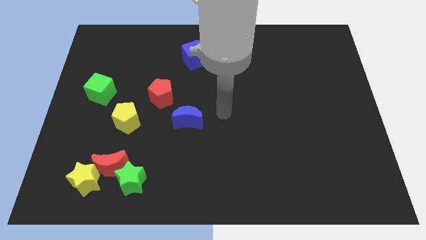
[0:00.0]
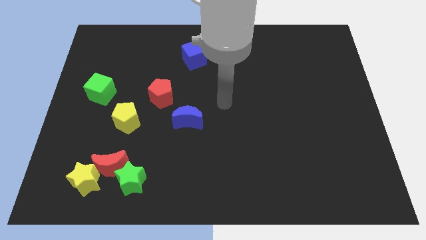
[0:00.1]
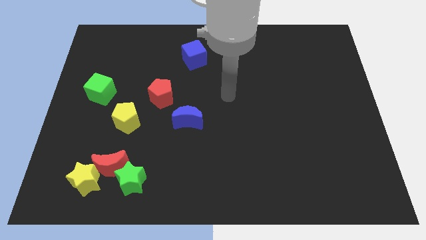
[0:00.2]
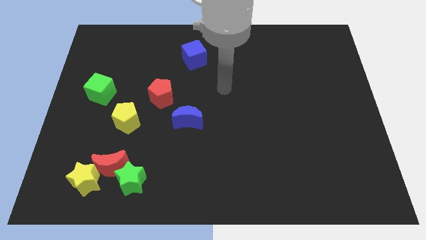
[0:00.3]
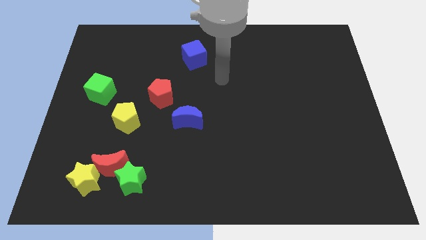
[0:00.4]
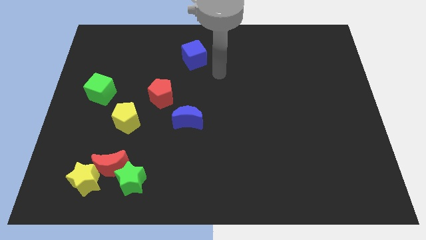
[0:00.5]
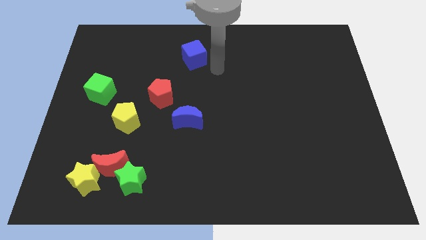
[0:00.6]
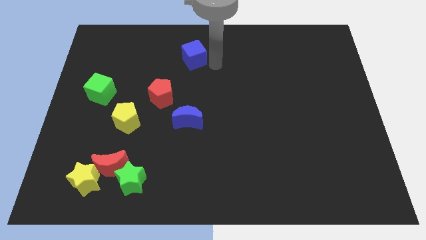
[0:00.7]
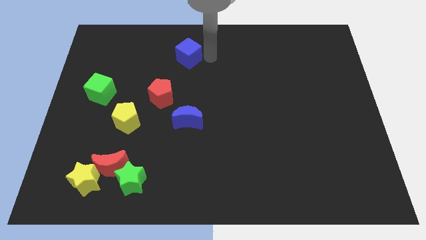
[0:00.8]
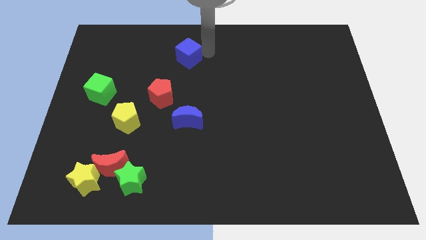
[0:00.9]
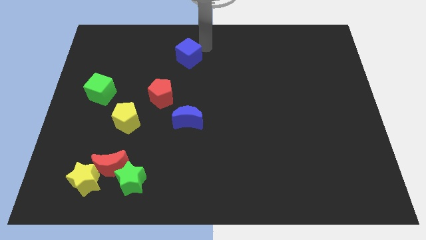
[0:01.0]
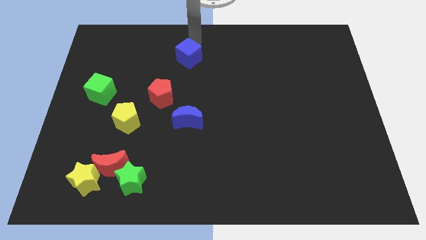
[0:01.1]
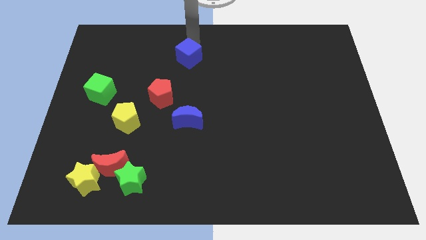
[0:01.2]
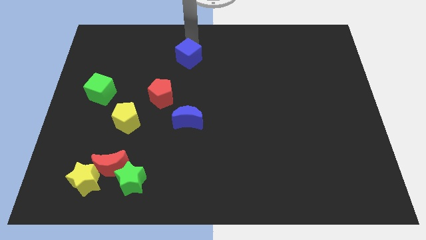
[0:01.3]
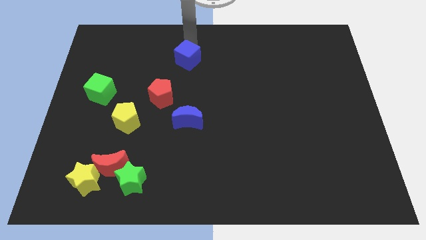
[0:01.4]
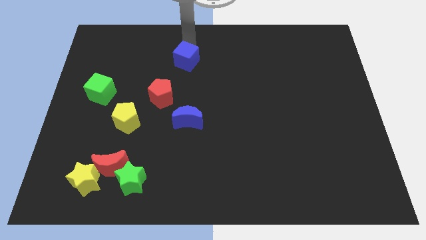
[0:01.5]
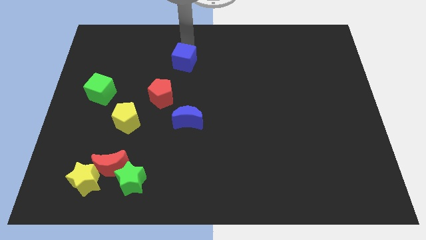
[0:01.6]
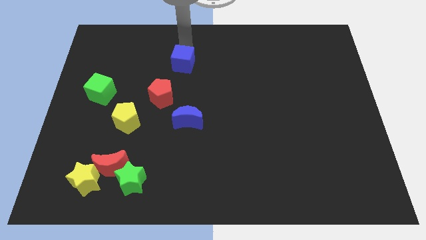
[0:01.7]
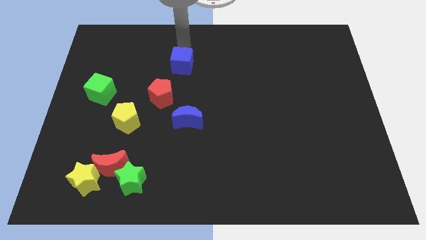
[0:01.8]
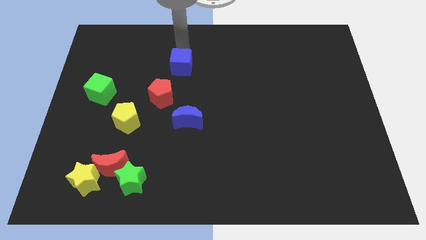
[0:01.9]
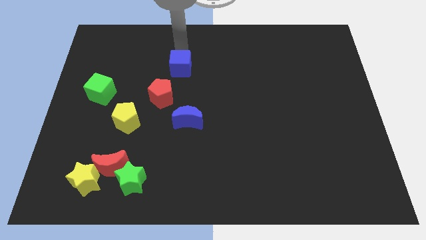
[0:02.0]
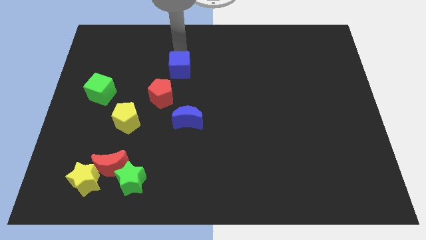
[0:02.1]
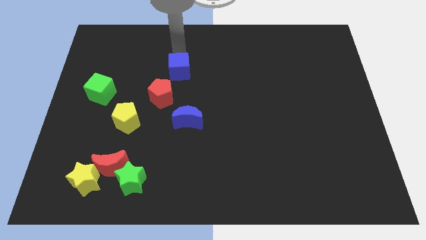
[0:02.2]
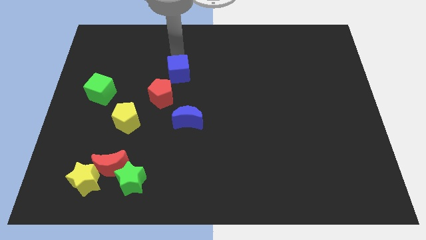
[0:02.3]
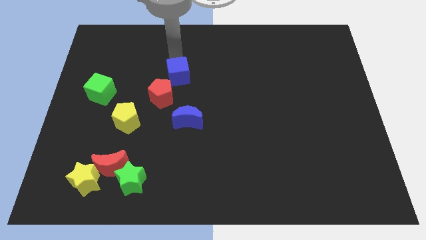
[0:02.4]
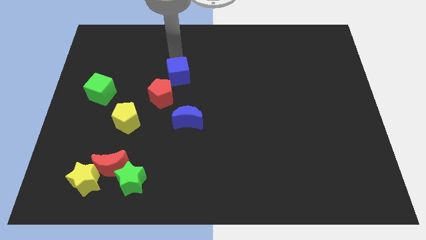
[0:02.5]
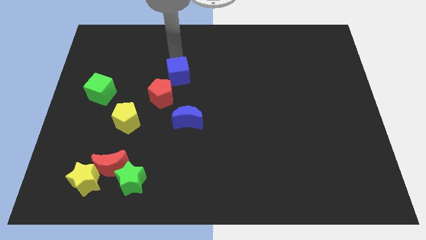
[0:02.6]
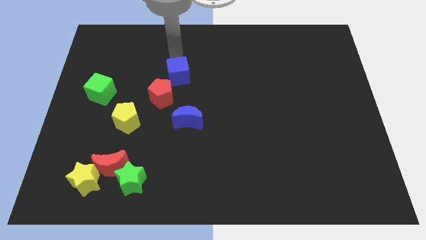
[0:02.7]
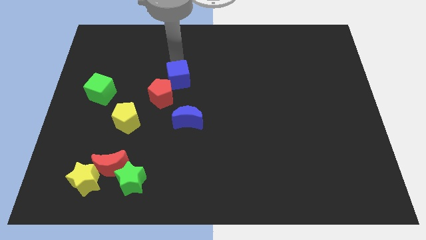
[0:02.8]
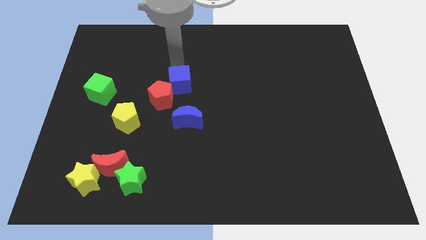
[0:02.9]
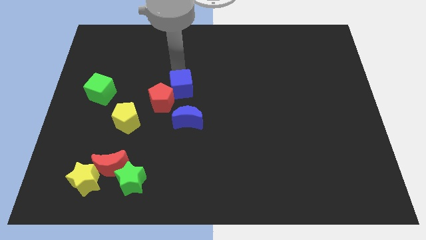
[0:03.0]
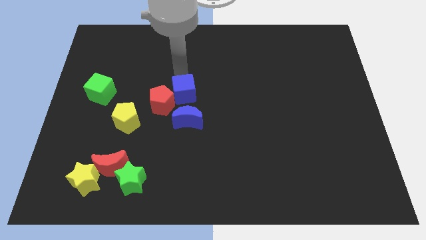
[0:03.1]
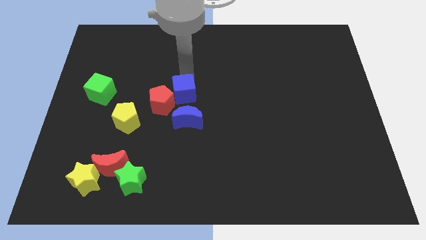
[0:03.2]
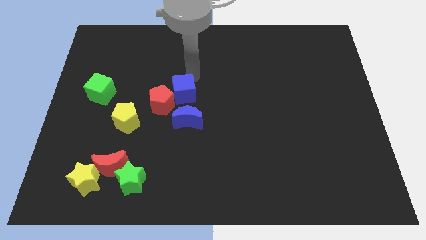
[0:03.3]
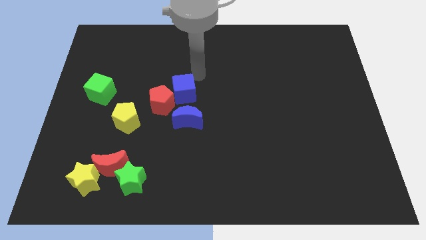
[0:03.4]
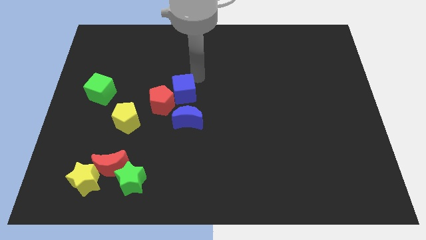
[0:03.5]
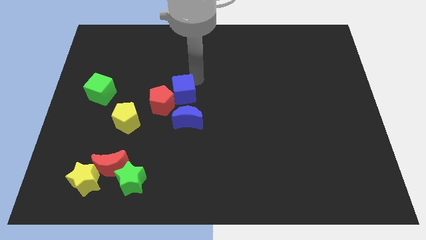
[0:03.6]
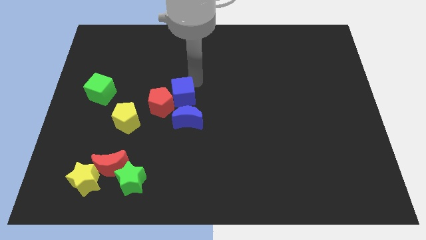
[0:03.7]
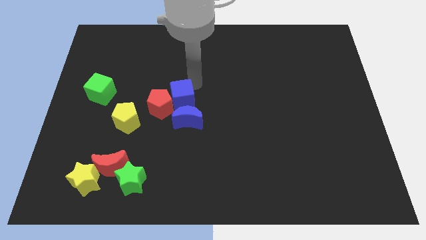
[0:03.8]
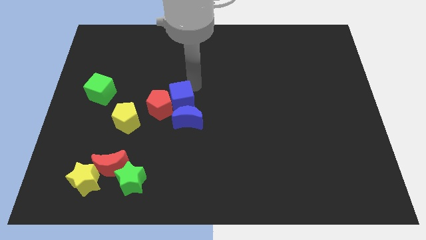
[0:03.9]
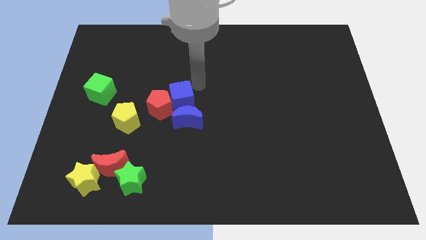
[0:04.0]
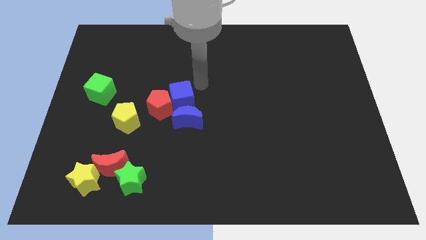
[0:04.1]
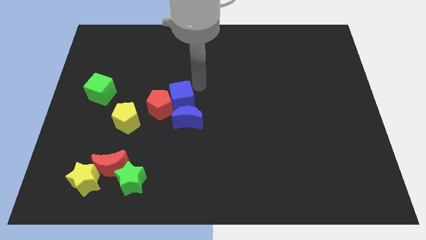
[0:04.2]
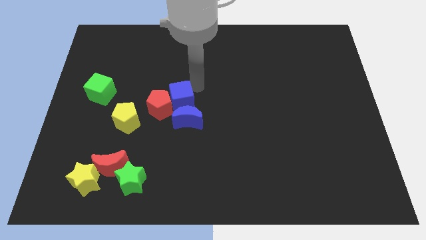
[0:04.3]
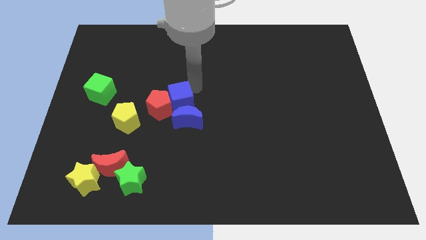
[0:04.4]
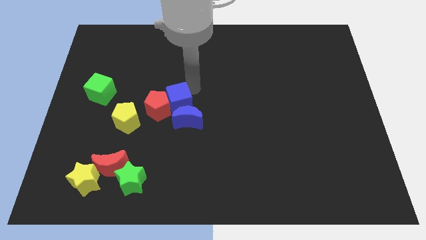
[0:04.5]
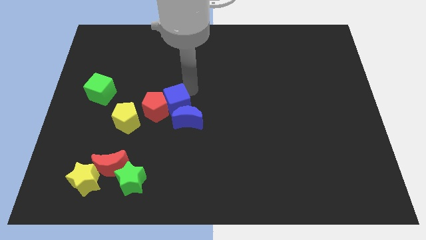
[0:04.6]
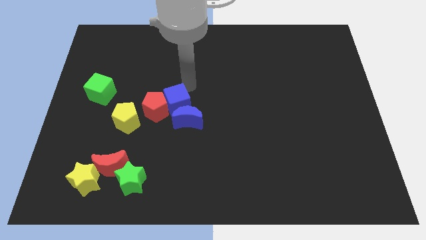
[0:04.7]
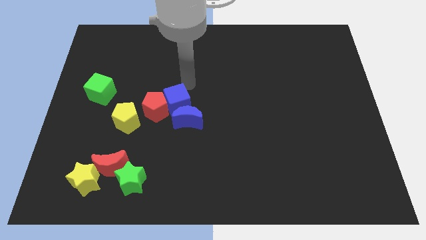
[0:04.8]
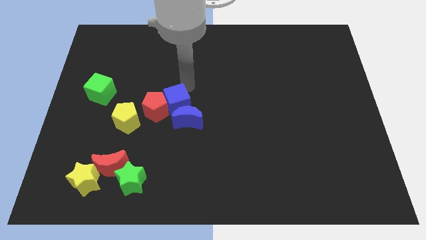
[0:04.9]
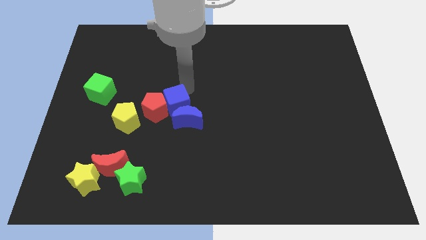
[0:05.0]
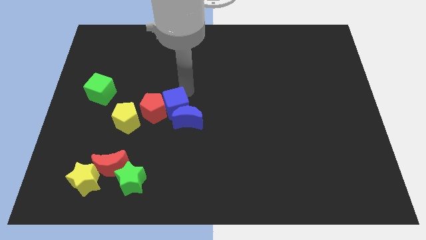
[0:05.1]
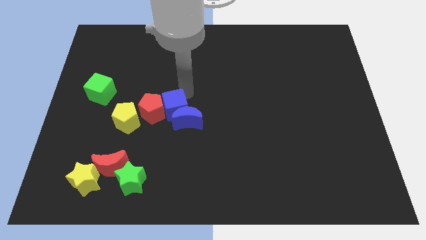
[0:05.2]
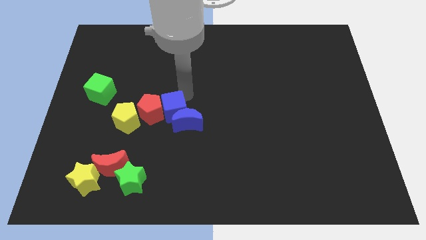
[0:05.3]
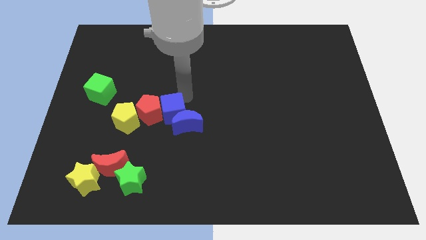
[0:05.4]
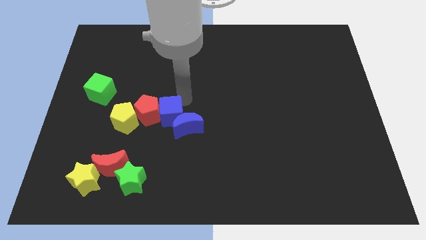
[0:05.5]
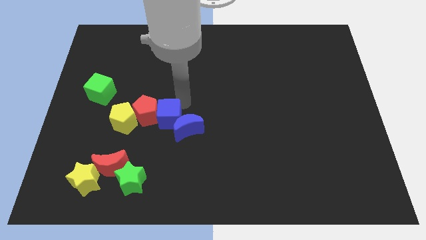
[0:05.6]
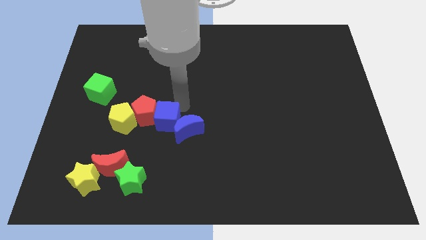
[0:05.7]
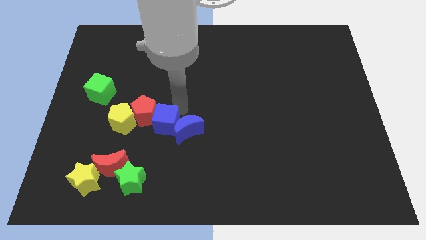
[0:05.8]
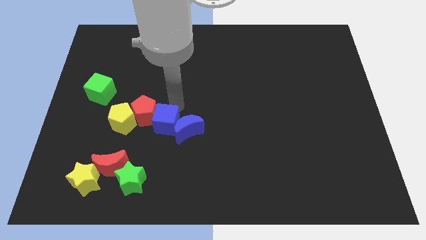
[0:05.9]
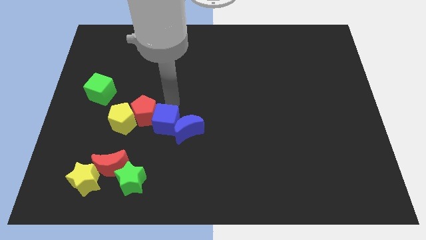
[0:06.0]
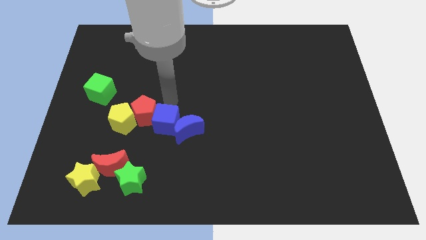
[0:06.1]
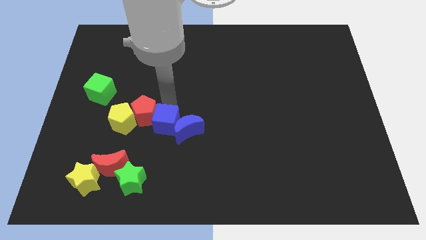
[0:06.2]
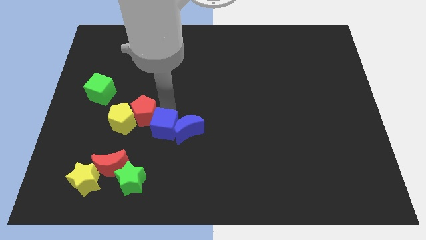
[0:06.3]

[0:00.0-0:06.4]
push the blue cube diagonally down and to the left of the blue moon
